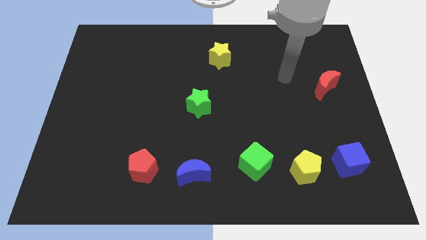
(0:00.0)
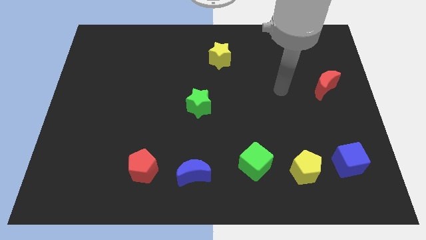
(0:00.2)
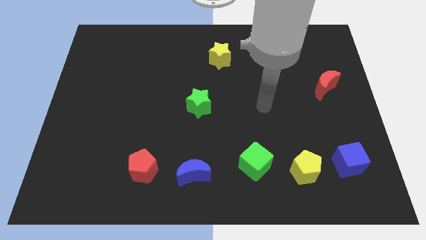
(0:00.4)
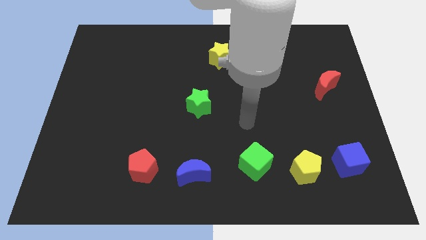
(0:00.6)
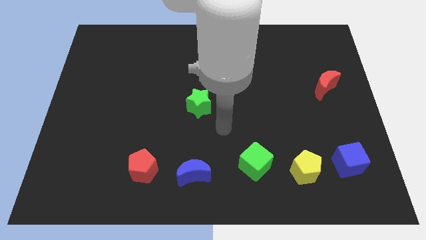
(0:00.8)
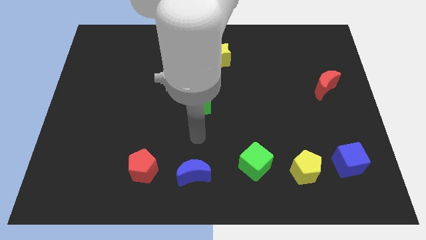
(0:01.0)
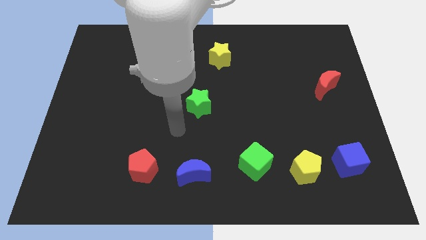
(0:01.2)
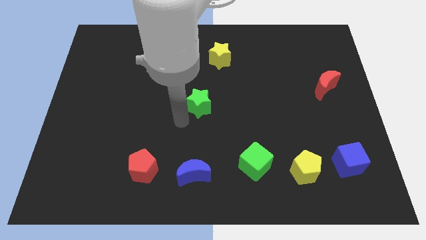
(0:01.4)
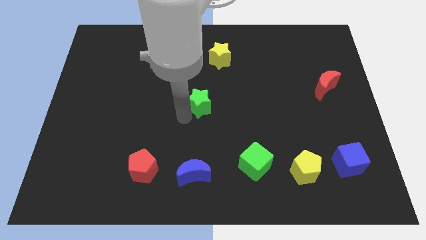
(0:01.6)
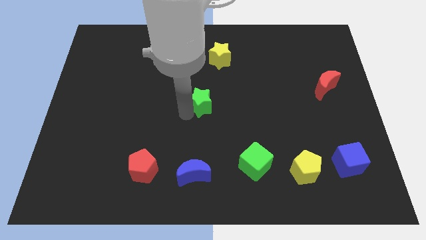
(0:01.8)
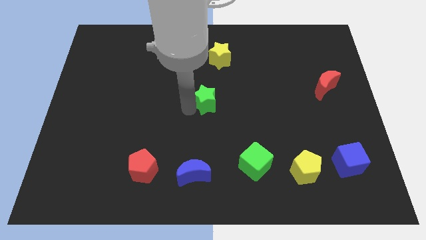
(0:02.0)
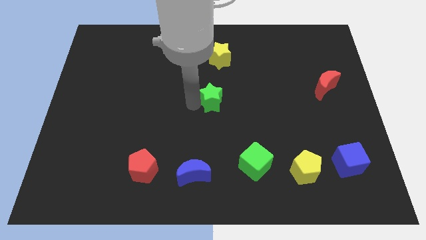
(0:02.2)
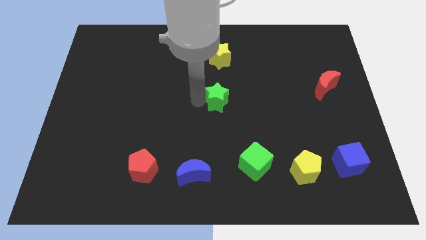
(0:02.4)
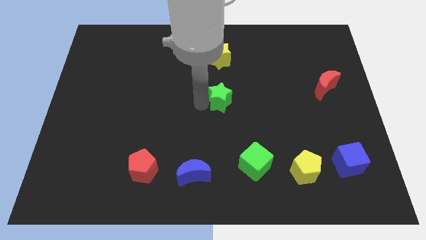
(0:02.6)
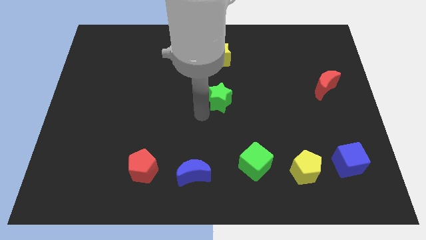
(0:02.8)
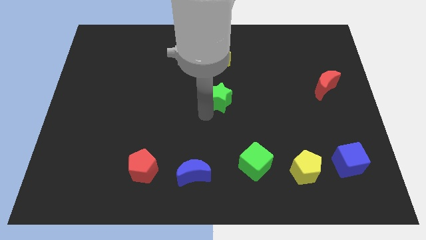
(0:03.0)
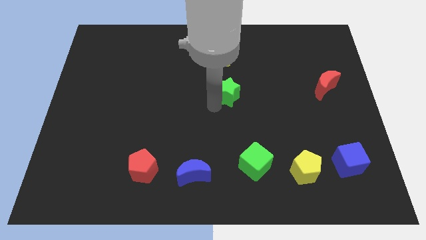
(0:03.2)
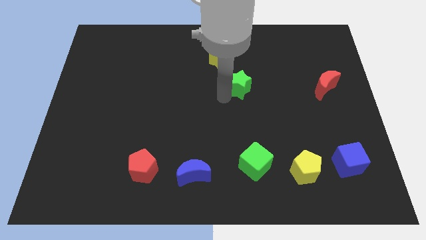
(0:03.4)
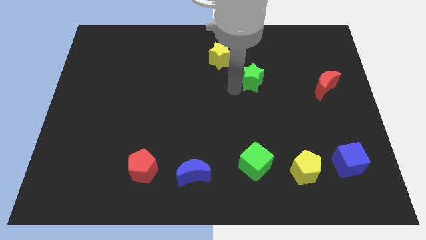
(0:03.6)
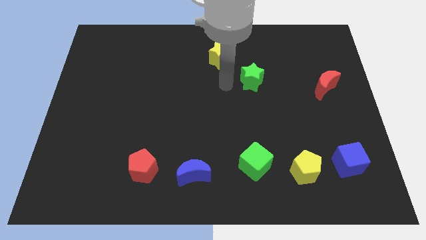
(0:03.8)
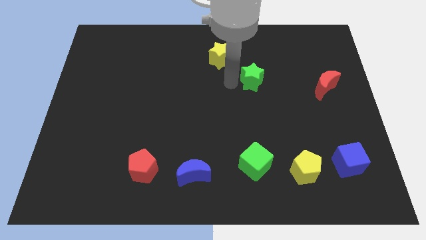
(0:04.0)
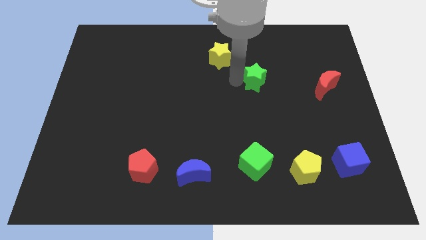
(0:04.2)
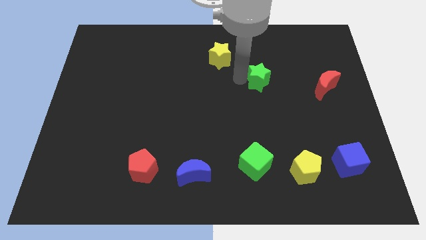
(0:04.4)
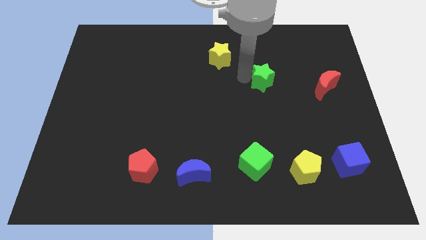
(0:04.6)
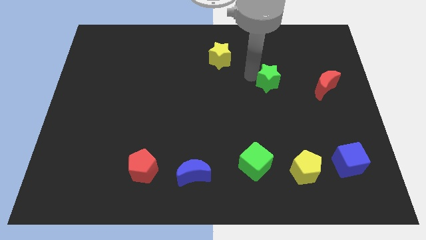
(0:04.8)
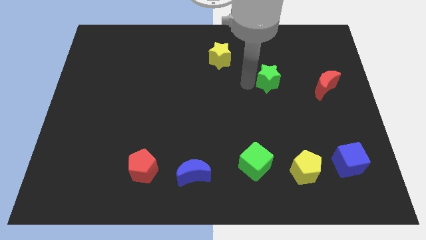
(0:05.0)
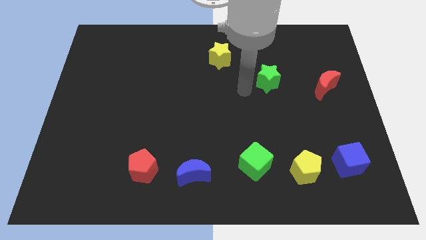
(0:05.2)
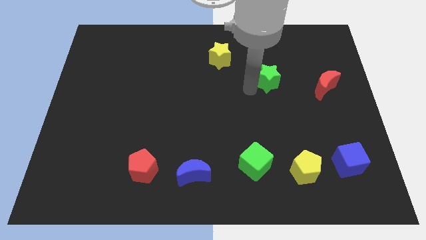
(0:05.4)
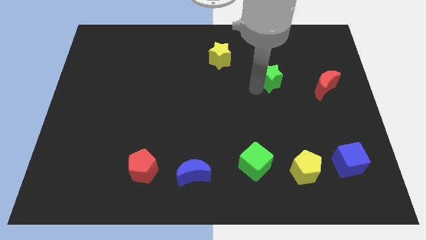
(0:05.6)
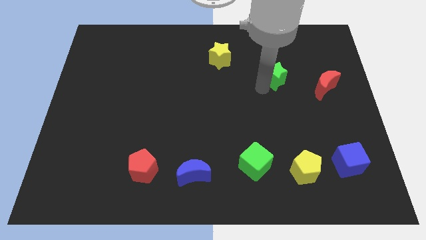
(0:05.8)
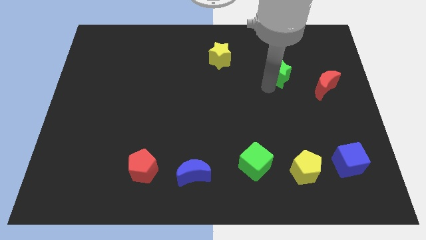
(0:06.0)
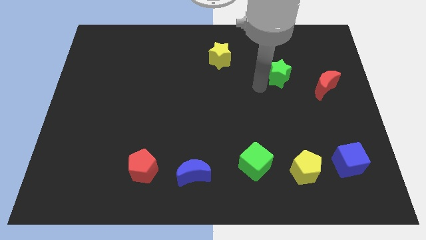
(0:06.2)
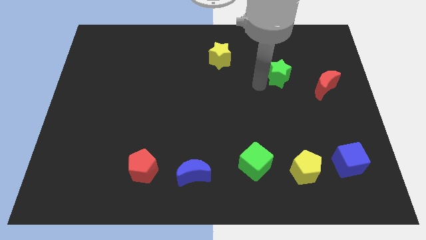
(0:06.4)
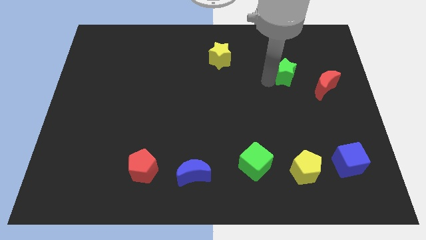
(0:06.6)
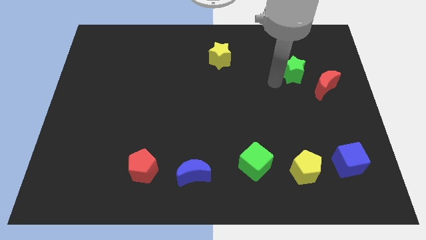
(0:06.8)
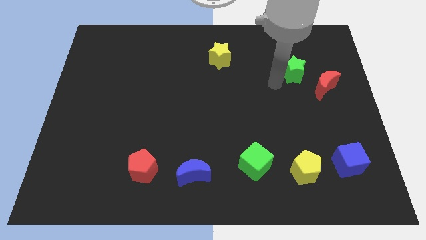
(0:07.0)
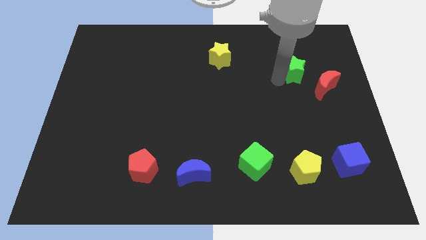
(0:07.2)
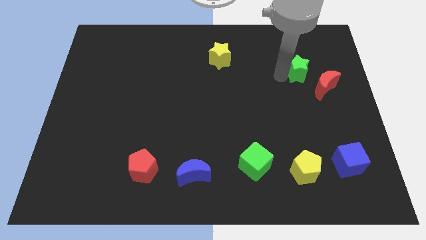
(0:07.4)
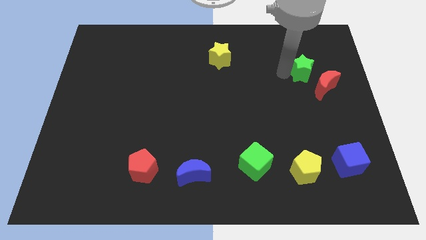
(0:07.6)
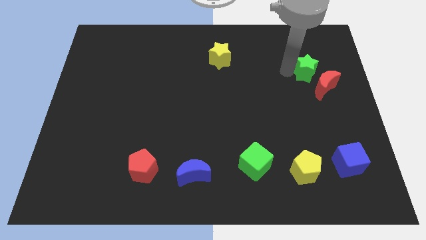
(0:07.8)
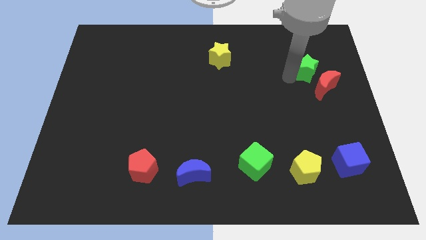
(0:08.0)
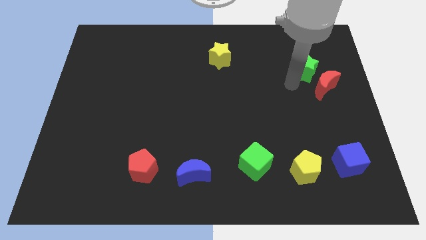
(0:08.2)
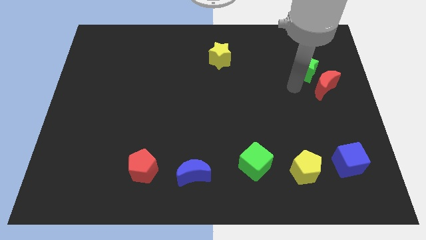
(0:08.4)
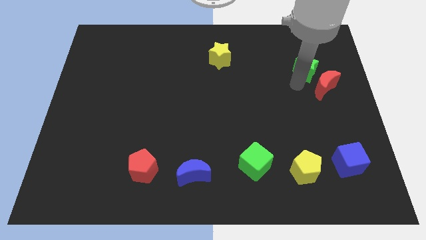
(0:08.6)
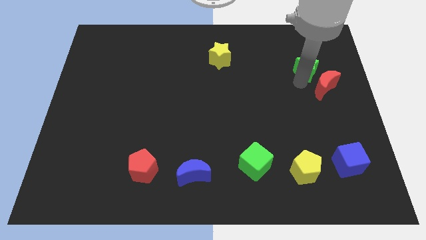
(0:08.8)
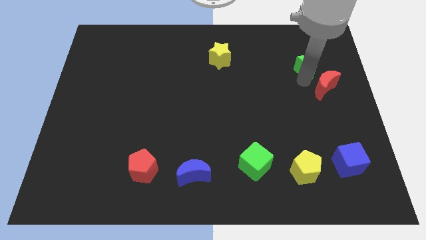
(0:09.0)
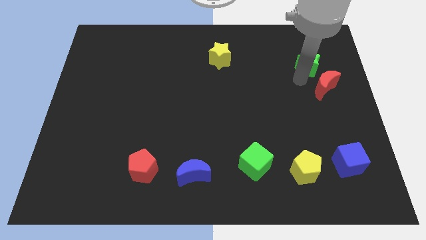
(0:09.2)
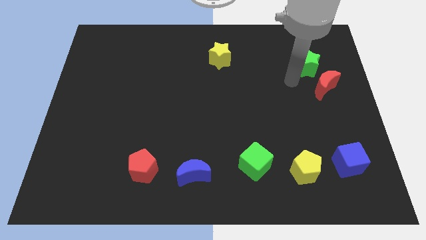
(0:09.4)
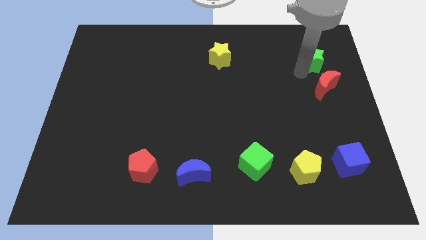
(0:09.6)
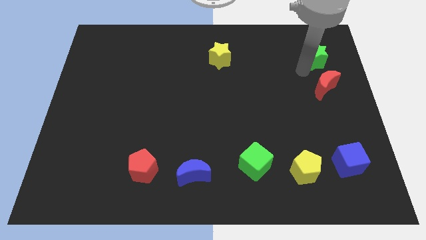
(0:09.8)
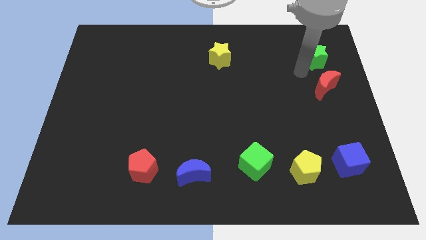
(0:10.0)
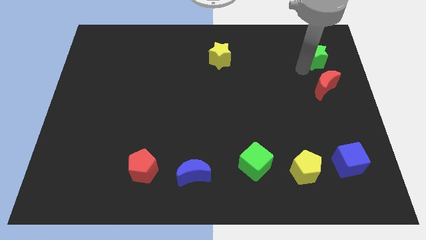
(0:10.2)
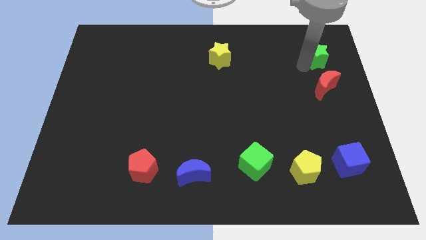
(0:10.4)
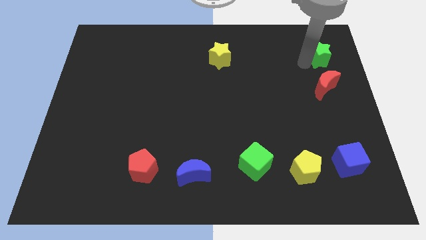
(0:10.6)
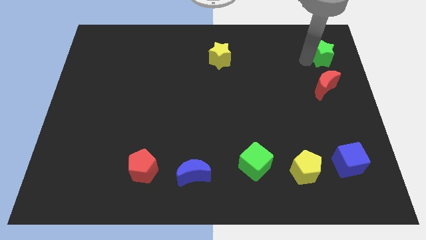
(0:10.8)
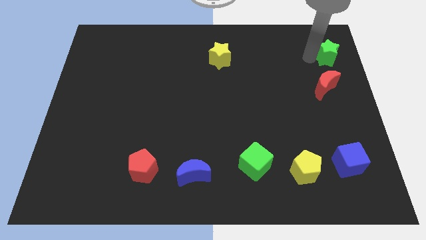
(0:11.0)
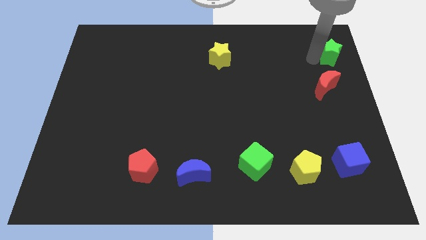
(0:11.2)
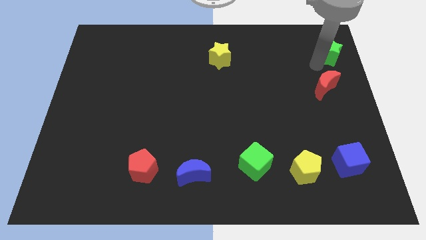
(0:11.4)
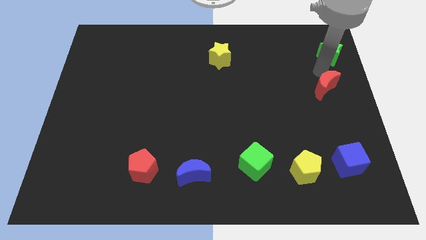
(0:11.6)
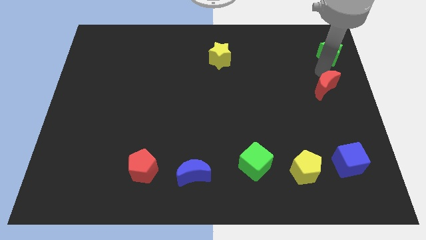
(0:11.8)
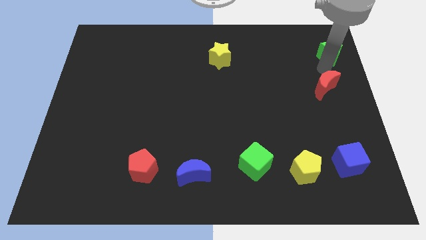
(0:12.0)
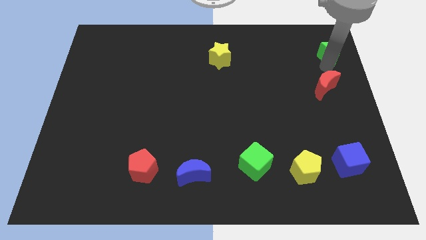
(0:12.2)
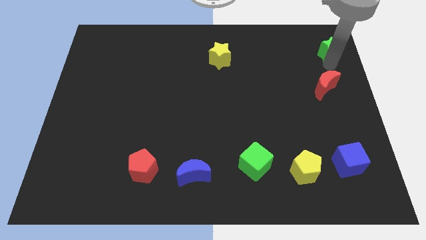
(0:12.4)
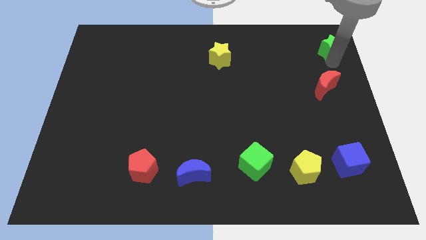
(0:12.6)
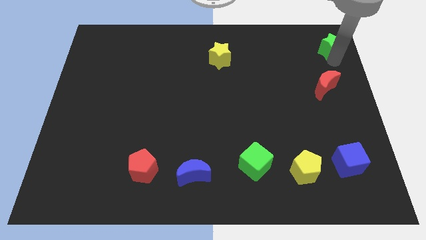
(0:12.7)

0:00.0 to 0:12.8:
slide the green star to the upper right corner
